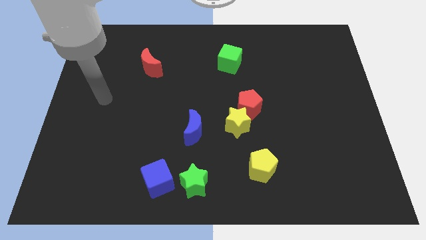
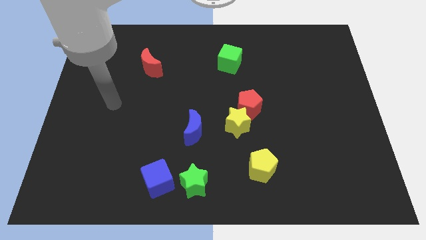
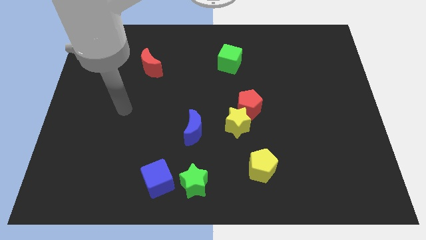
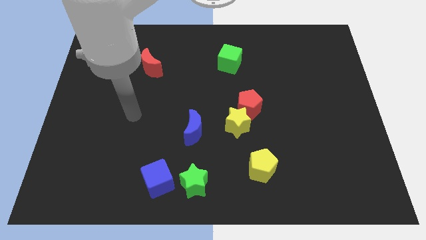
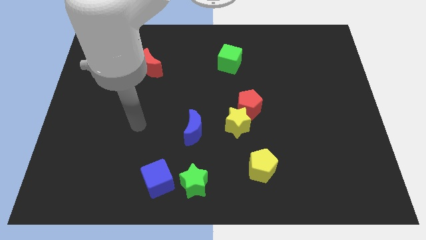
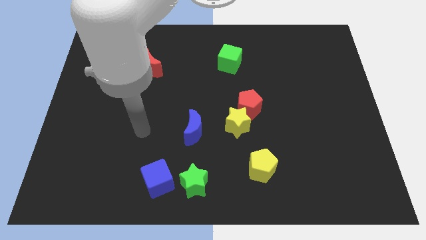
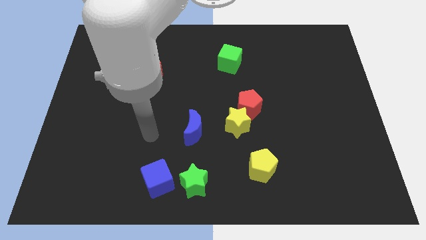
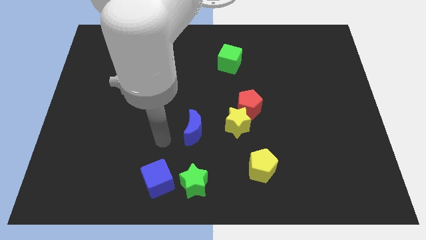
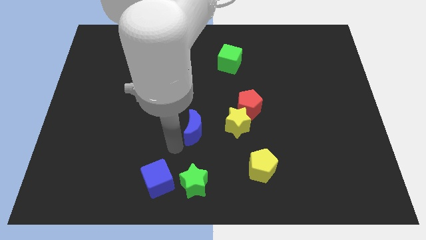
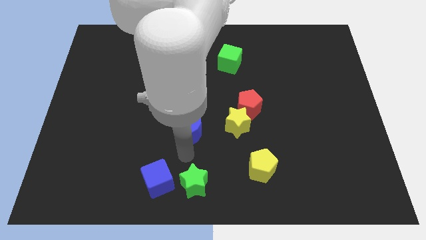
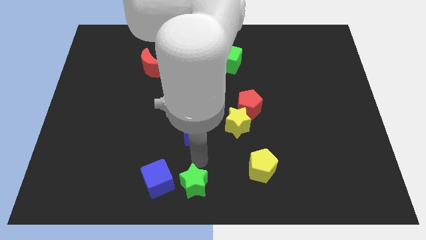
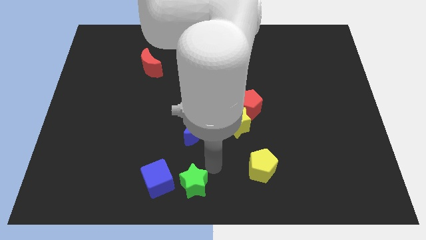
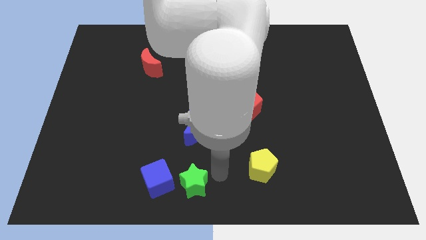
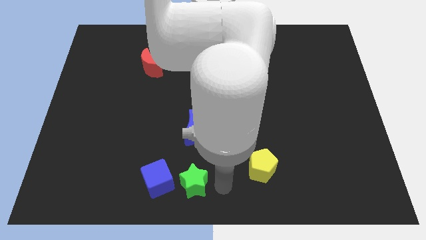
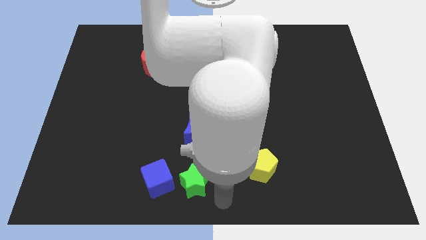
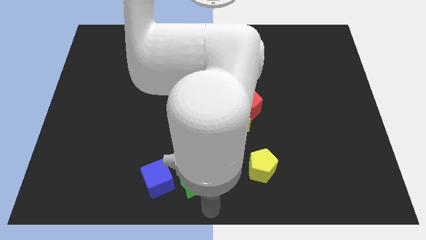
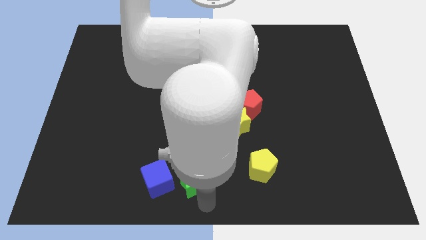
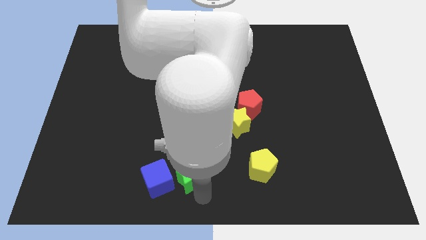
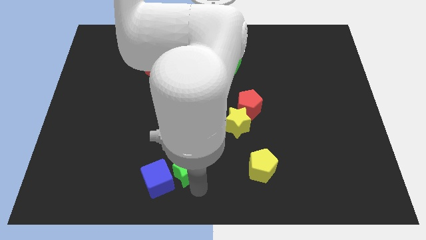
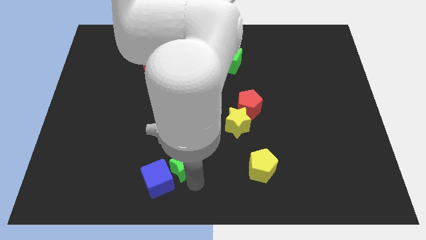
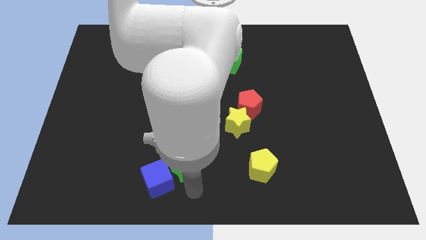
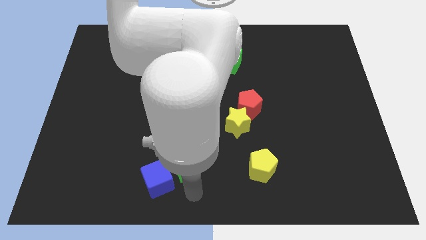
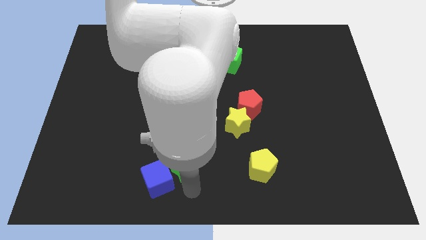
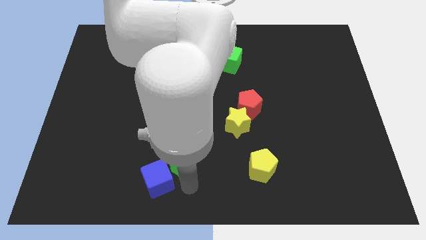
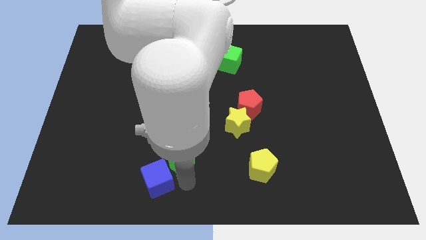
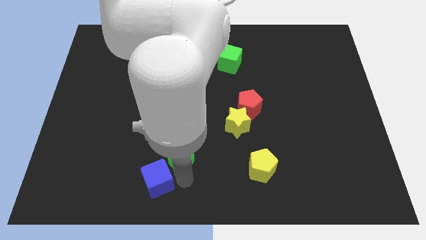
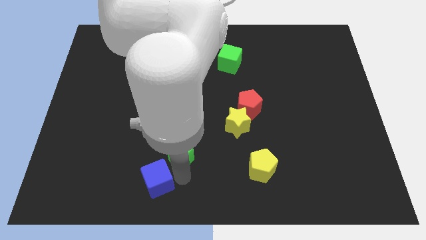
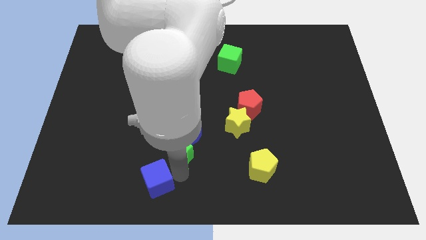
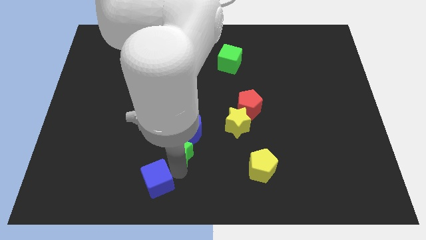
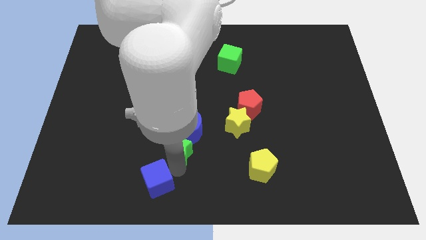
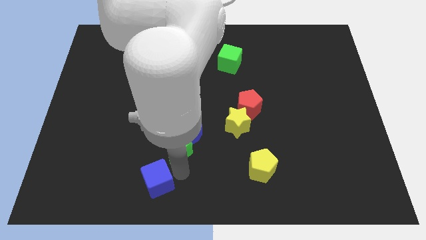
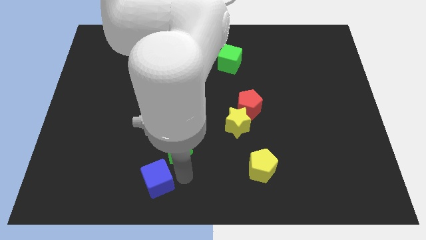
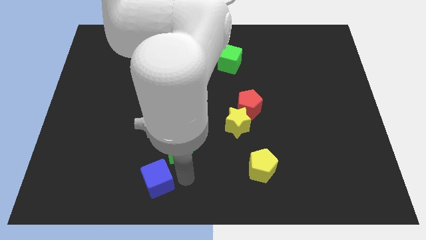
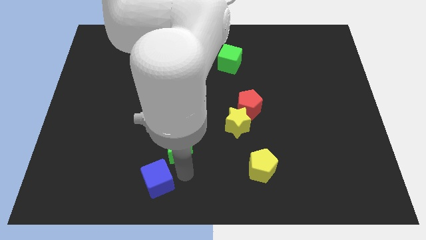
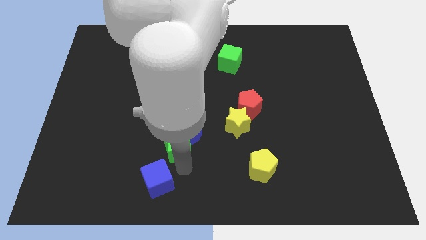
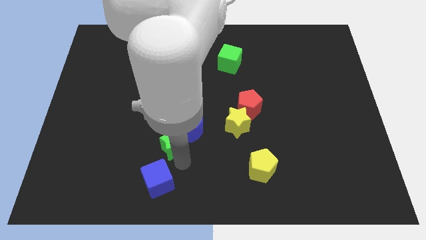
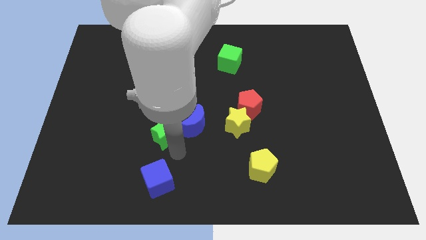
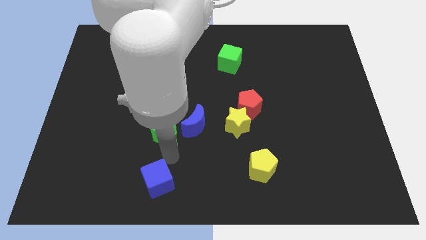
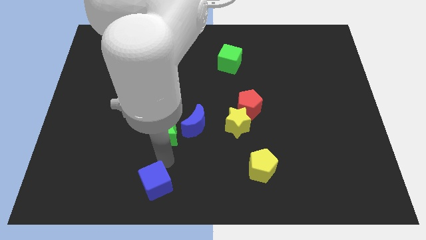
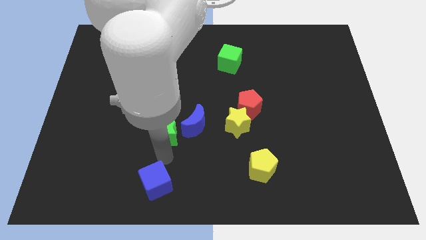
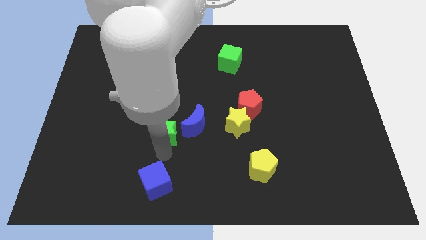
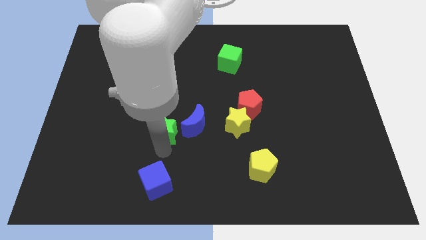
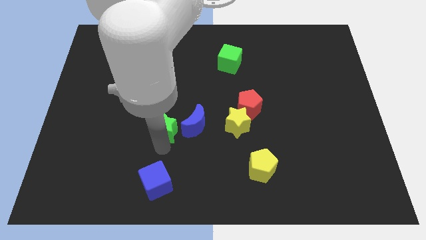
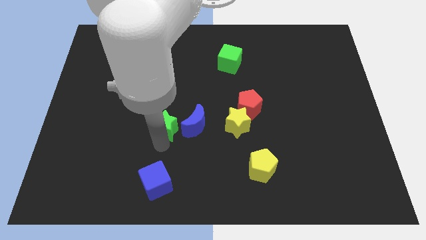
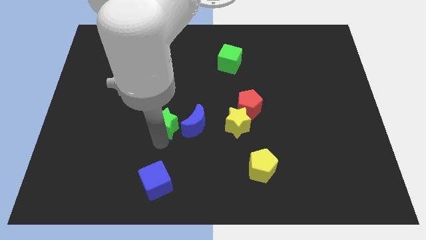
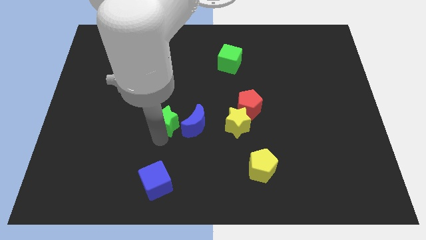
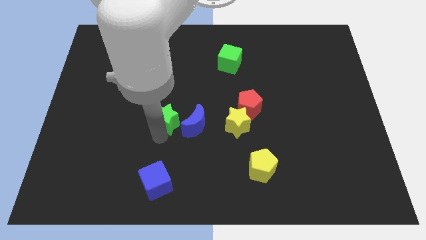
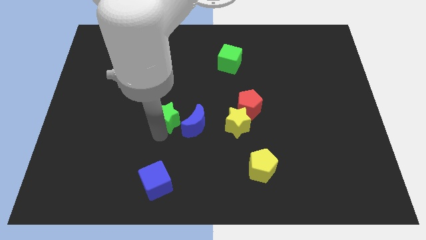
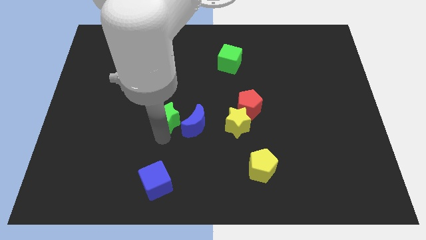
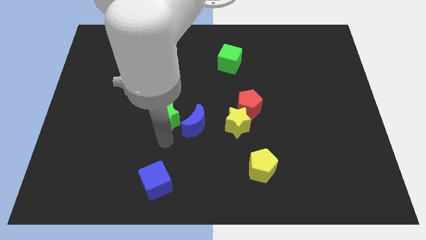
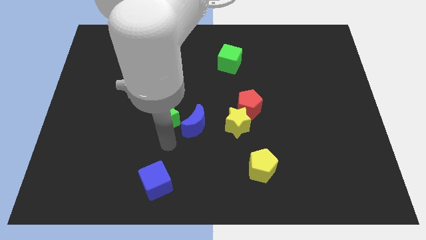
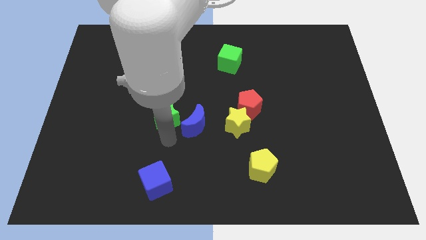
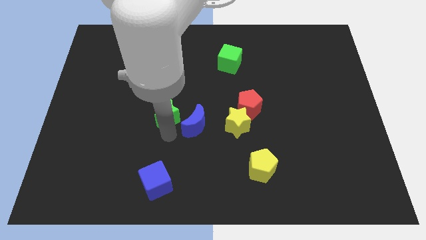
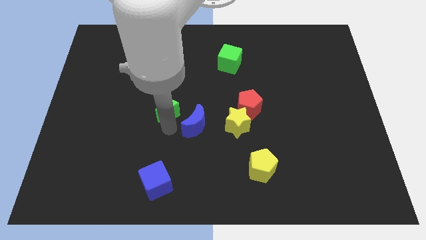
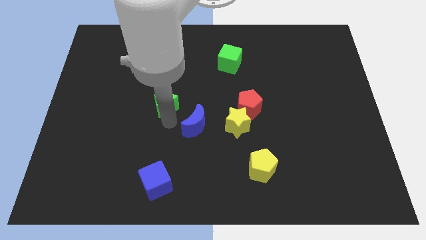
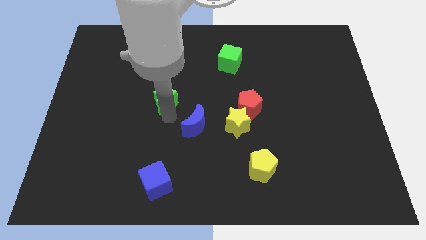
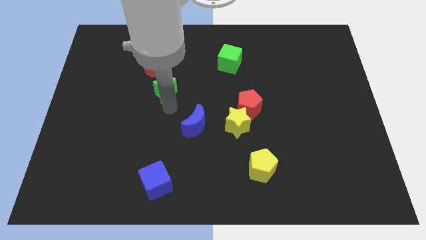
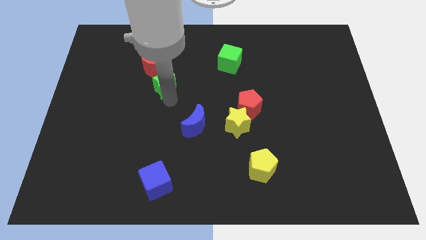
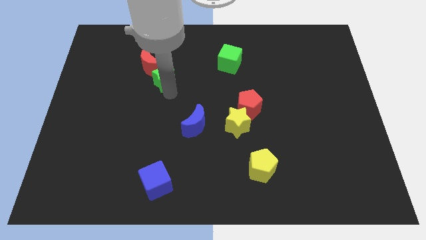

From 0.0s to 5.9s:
slide the green star towards the red moon

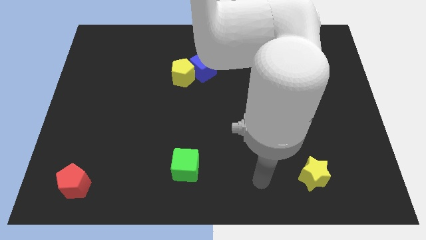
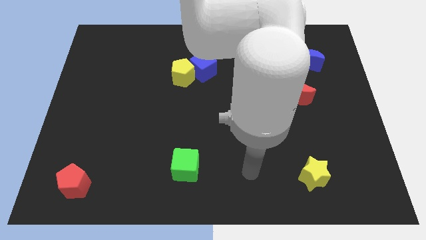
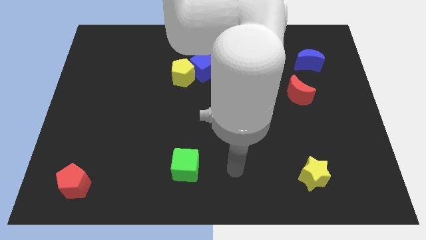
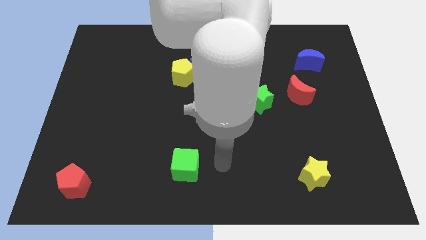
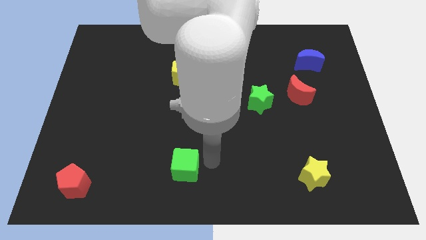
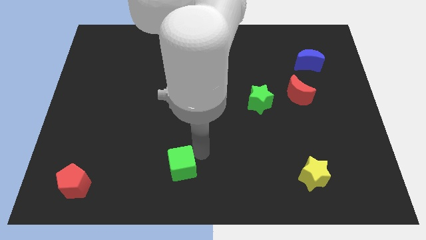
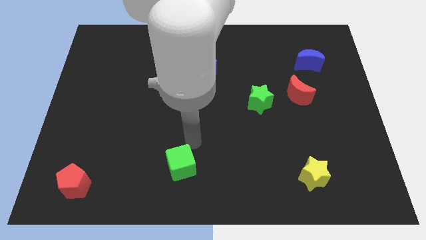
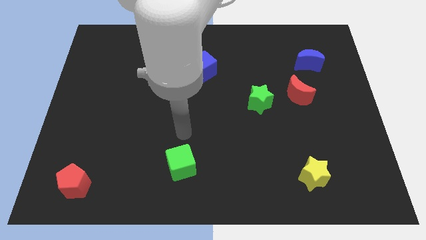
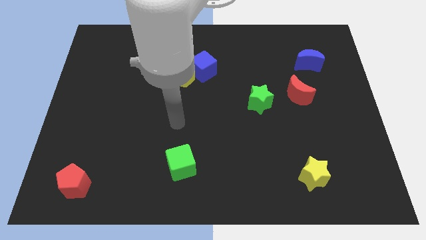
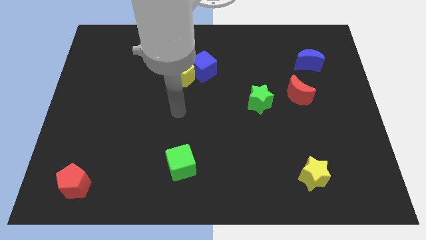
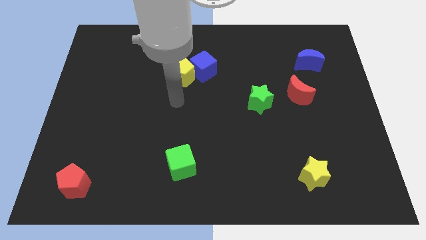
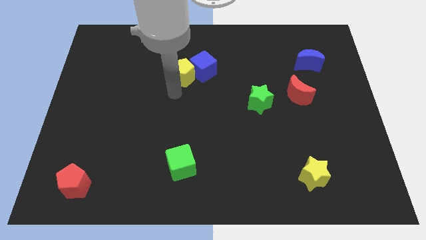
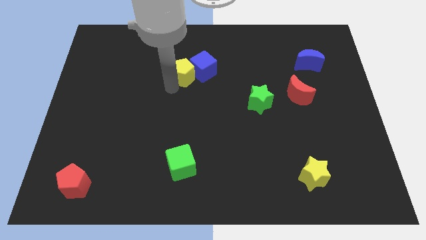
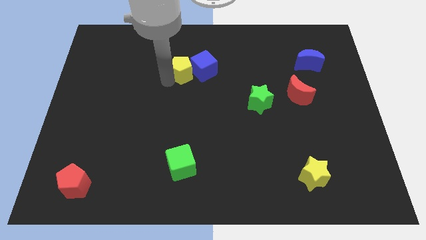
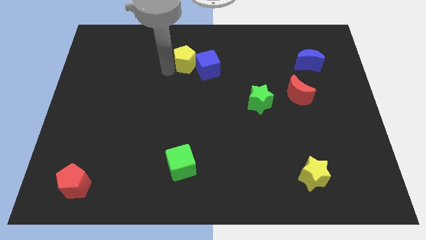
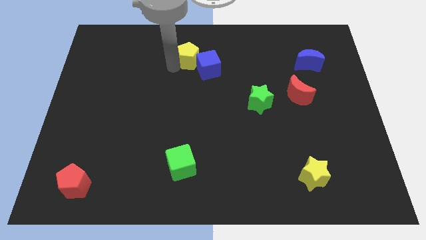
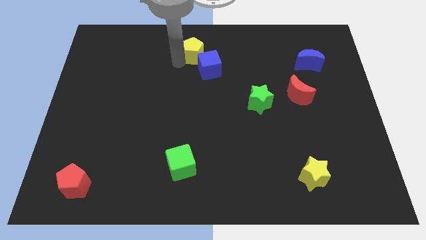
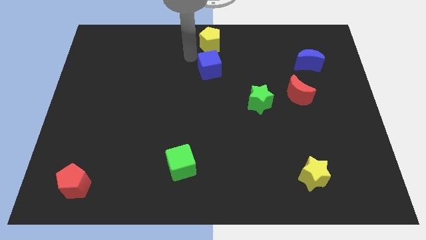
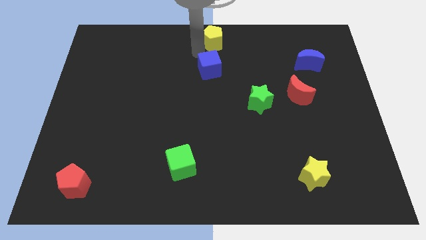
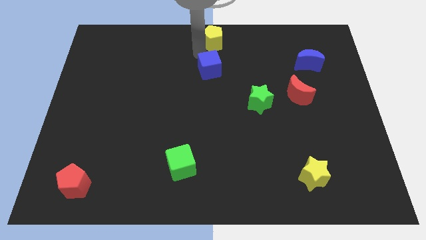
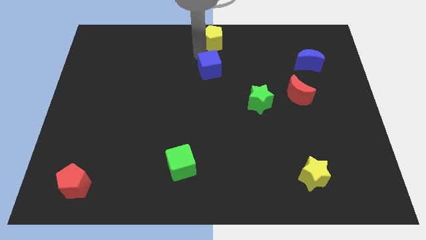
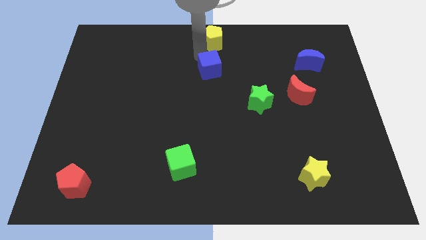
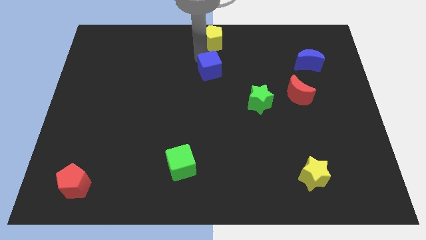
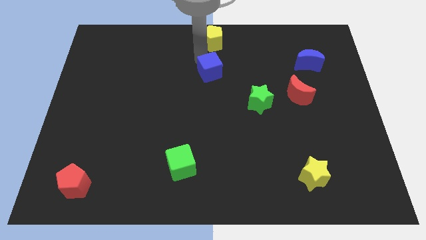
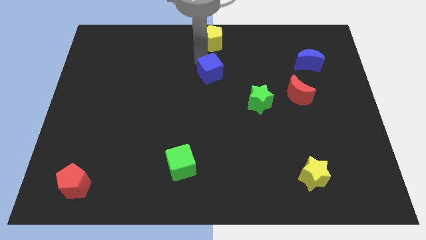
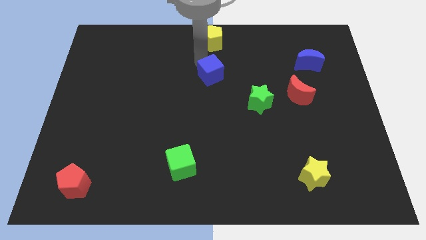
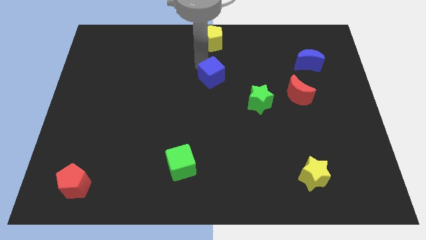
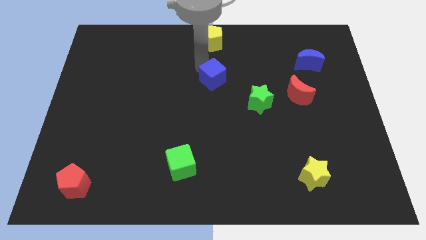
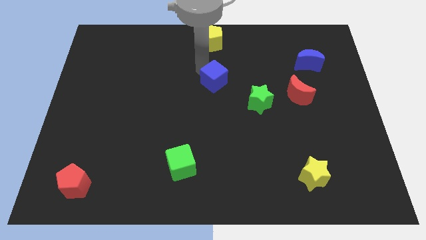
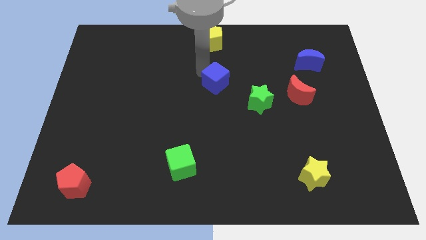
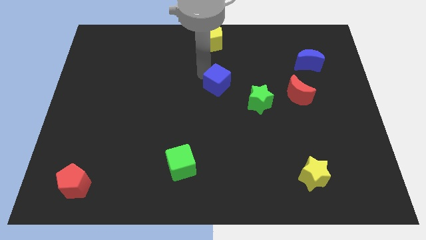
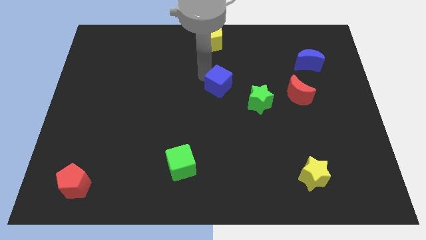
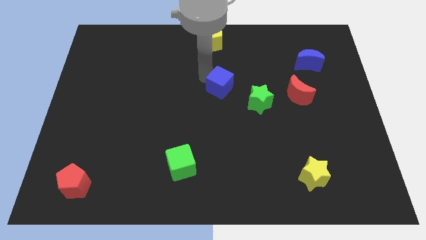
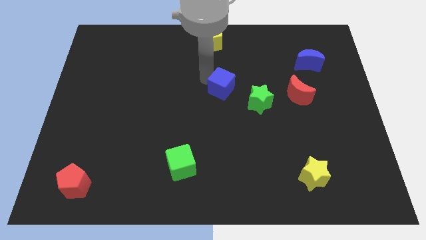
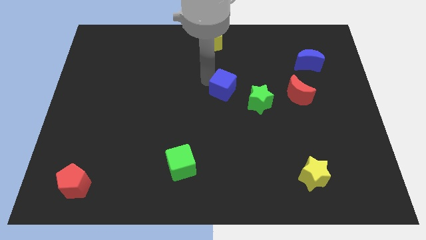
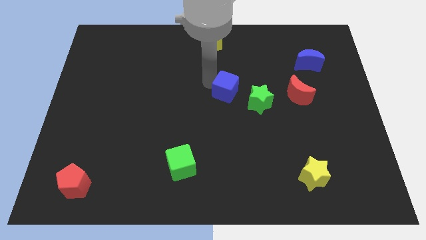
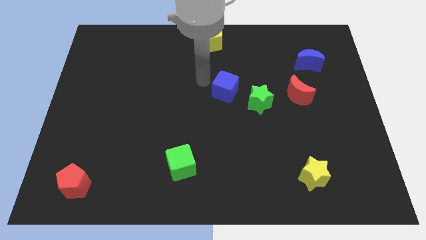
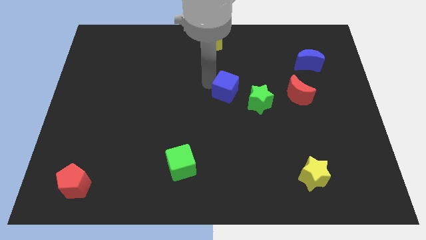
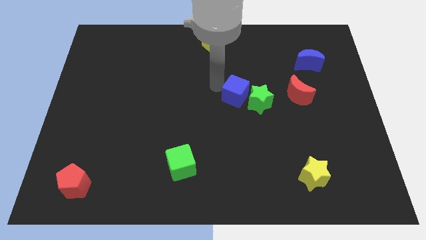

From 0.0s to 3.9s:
move the blue cube towards the green star
